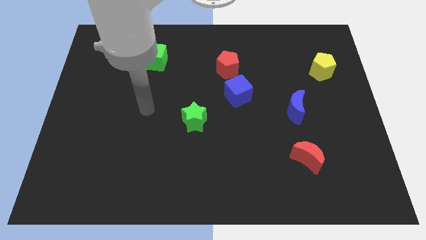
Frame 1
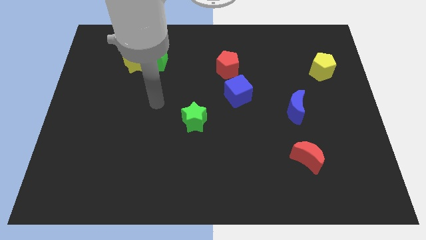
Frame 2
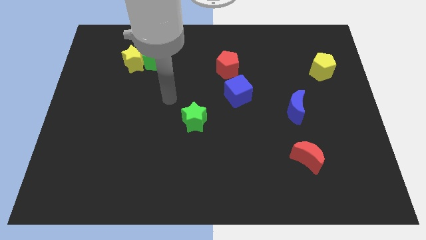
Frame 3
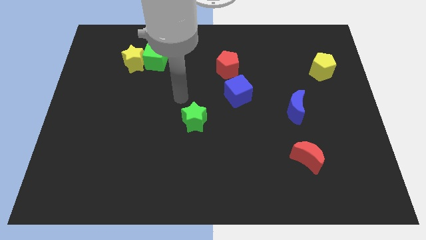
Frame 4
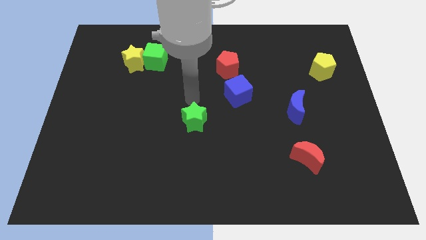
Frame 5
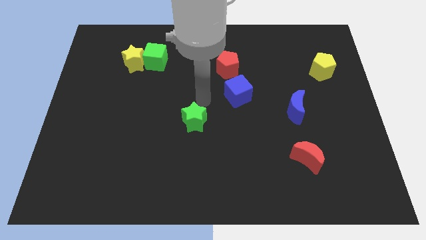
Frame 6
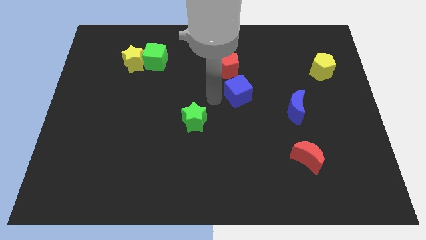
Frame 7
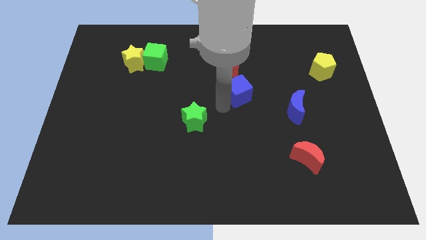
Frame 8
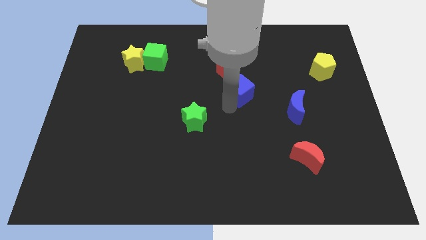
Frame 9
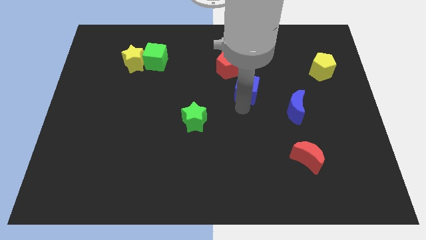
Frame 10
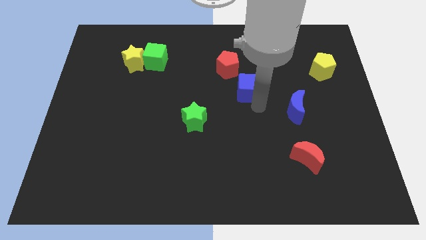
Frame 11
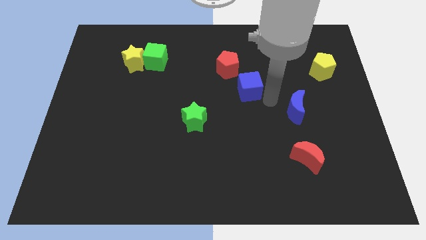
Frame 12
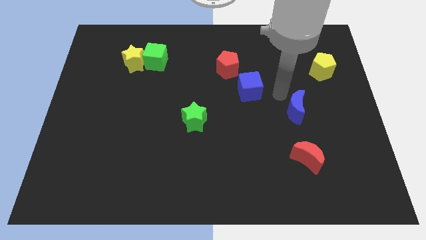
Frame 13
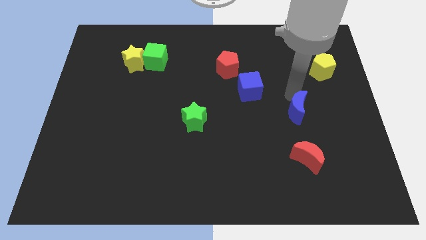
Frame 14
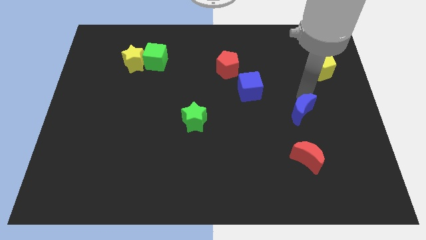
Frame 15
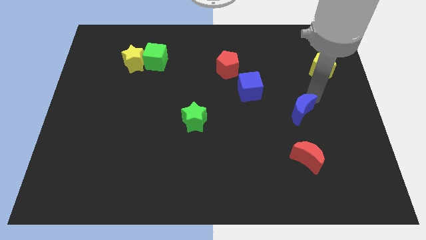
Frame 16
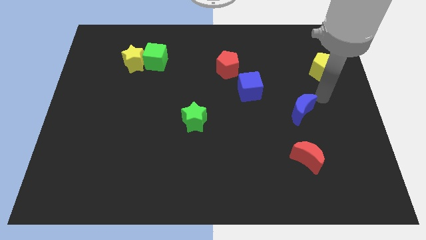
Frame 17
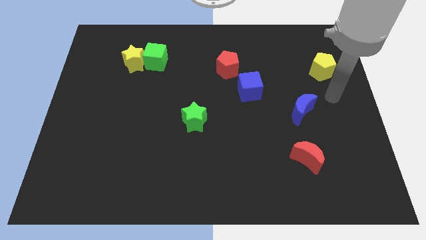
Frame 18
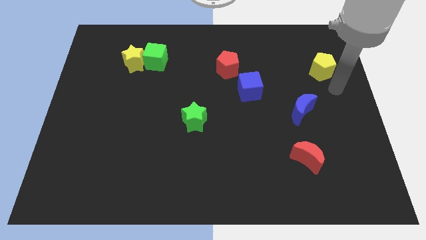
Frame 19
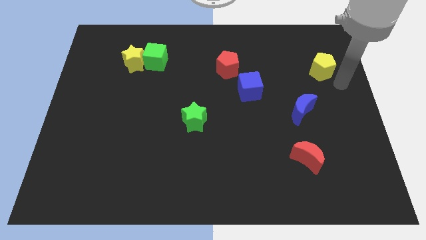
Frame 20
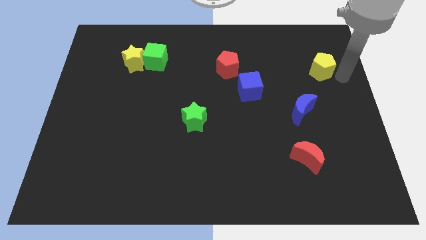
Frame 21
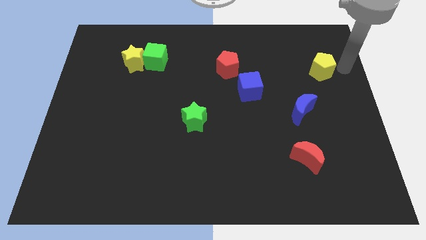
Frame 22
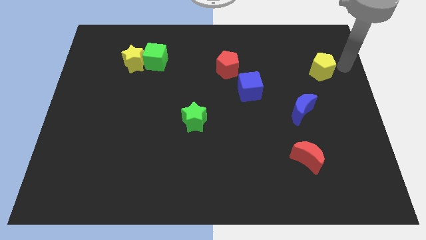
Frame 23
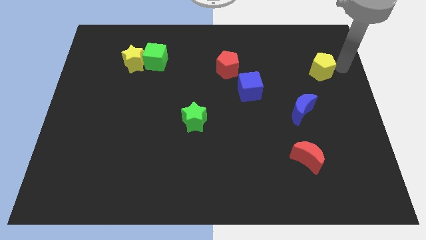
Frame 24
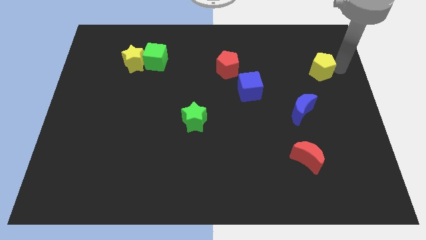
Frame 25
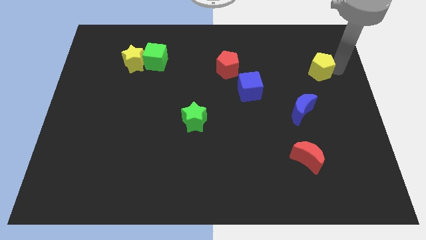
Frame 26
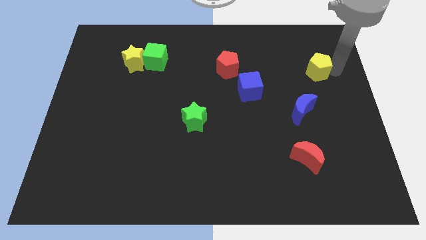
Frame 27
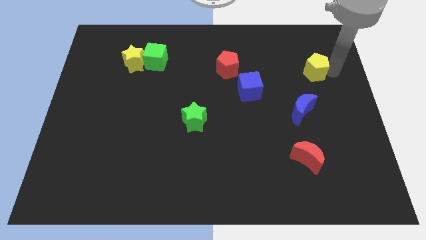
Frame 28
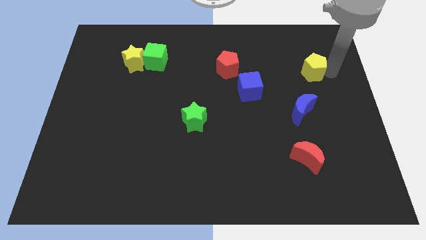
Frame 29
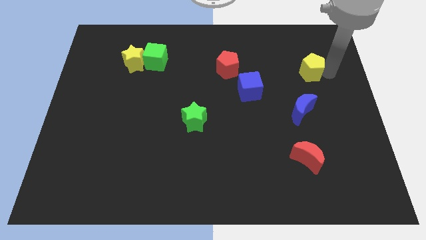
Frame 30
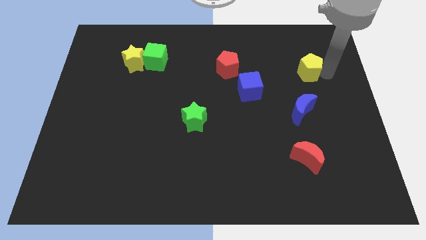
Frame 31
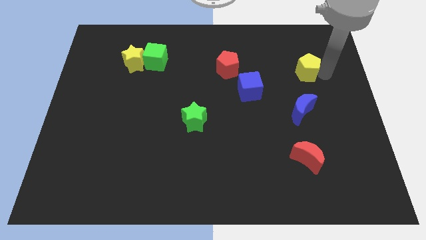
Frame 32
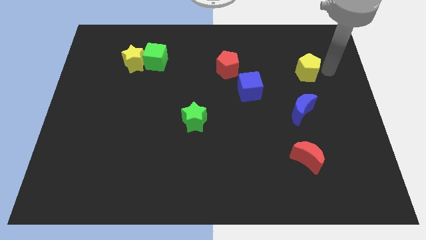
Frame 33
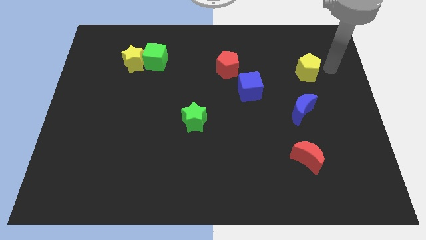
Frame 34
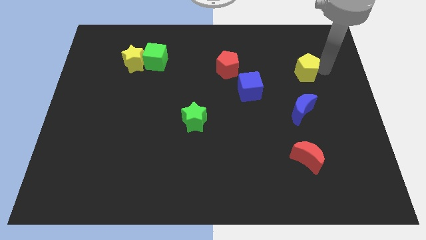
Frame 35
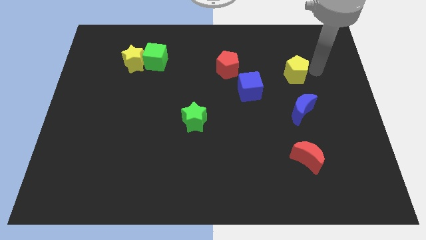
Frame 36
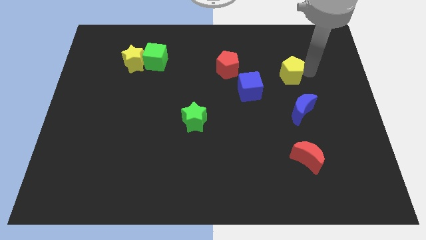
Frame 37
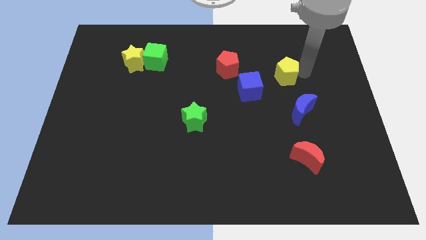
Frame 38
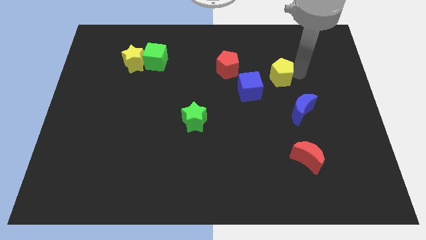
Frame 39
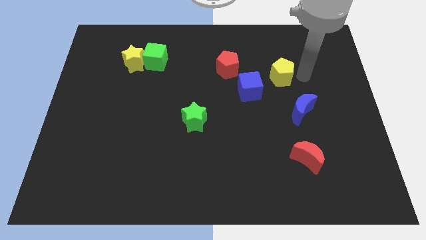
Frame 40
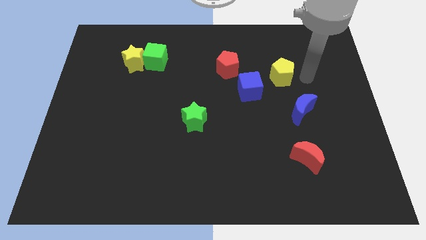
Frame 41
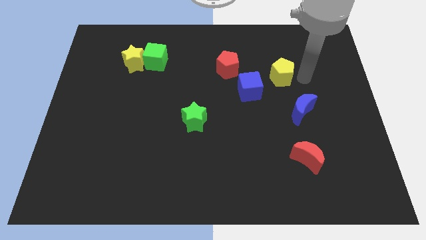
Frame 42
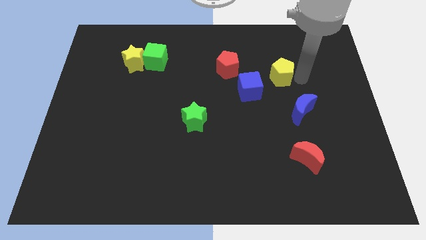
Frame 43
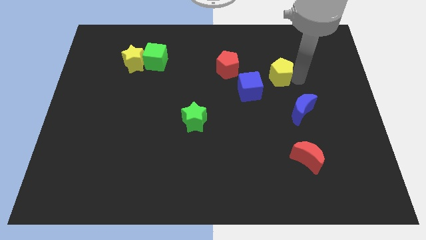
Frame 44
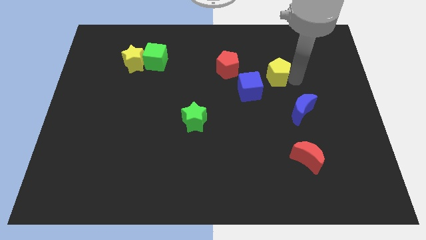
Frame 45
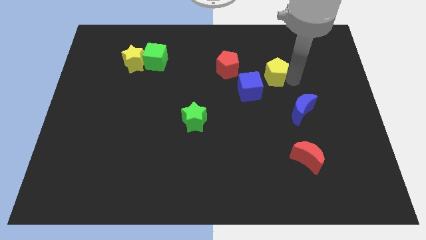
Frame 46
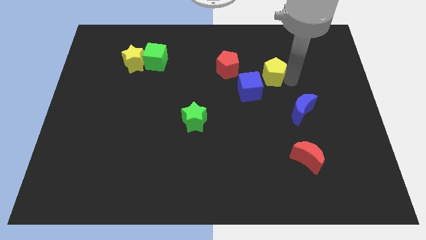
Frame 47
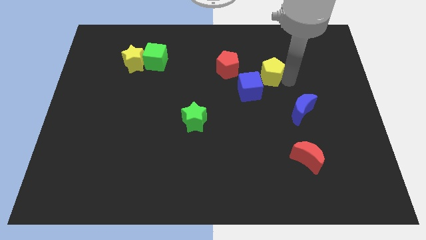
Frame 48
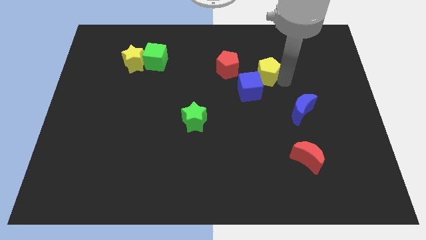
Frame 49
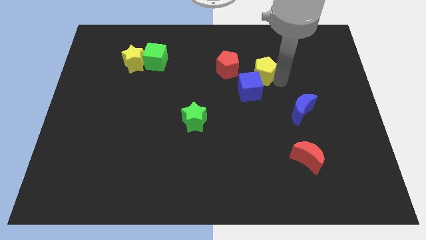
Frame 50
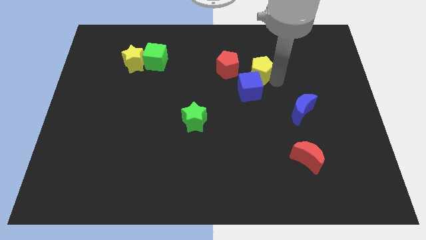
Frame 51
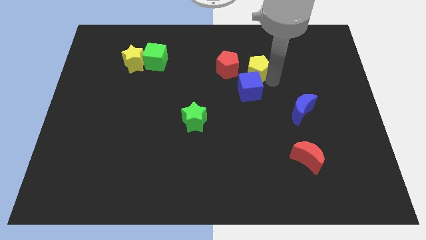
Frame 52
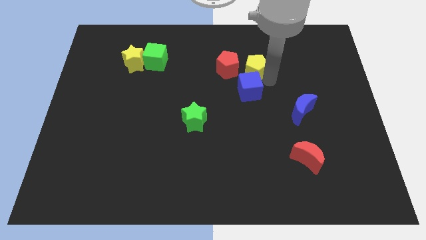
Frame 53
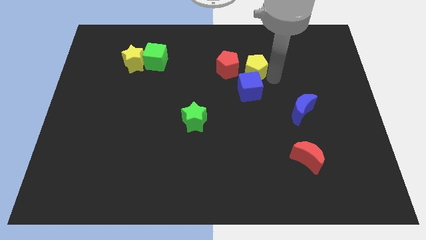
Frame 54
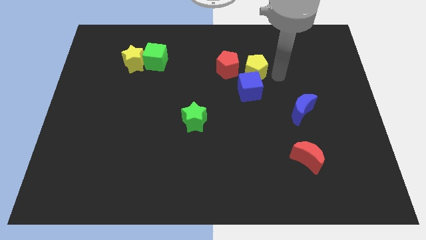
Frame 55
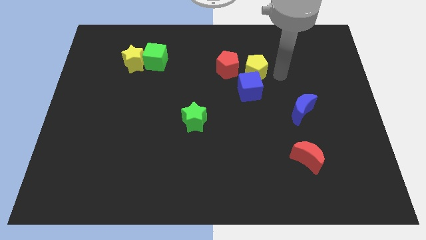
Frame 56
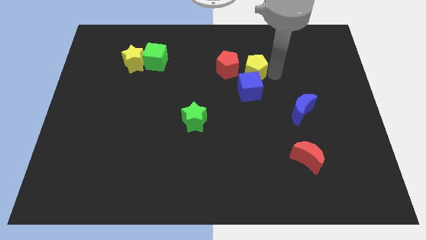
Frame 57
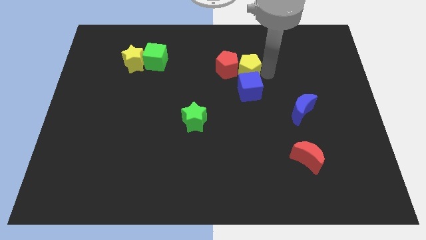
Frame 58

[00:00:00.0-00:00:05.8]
put the yellow pentagon next to the red pentagon

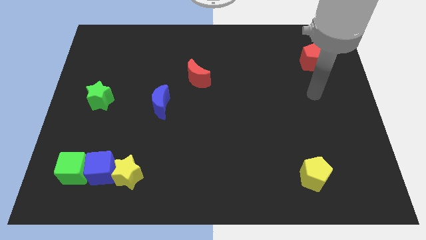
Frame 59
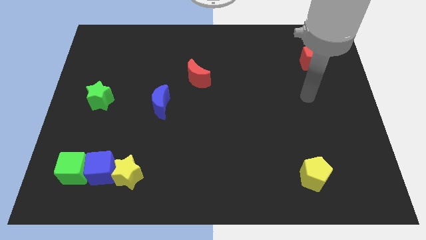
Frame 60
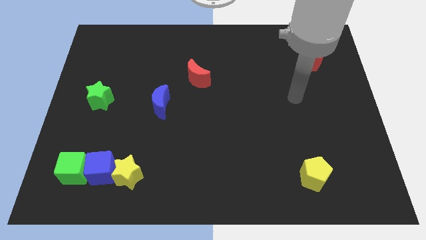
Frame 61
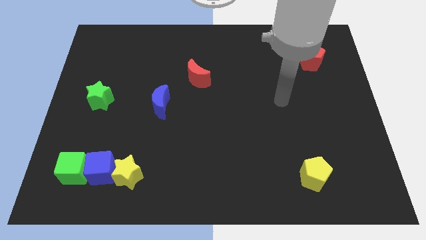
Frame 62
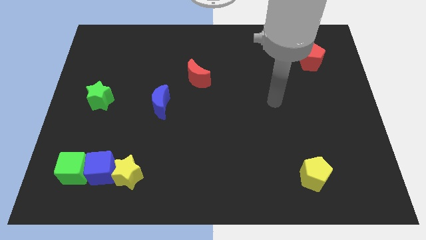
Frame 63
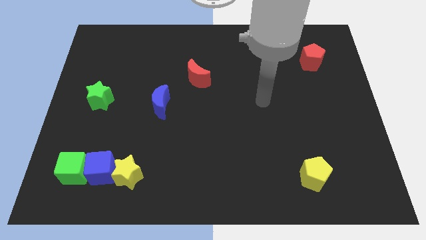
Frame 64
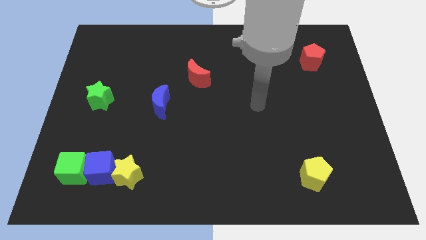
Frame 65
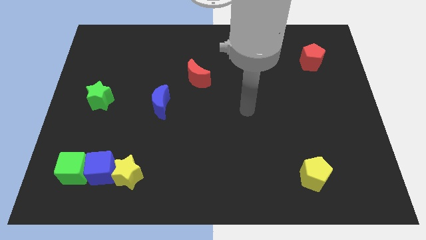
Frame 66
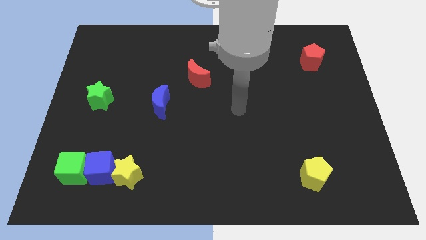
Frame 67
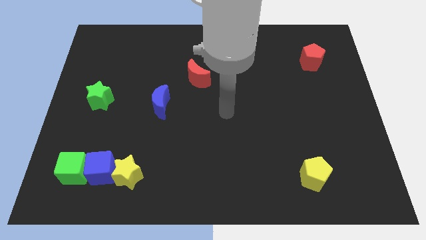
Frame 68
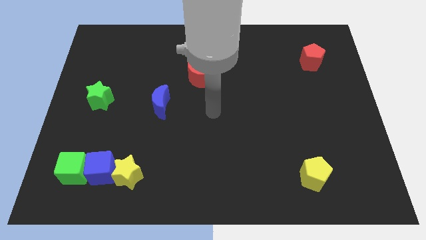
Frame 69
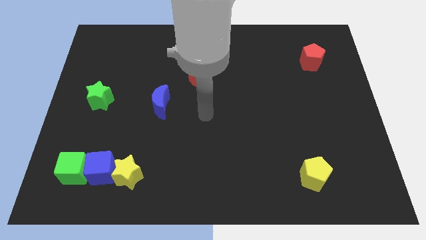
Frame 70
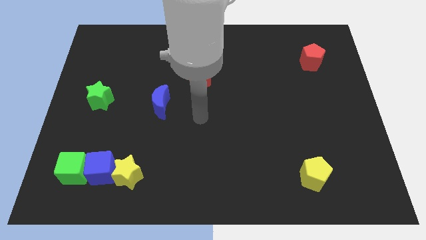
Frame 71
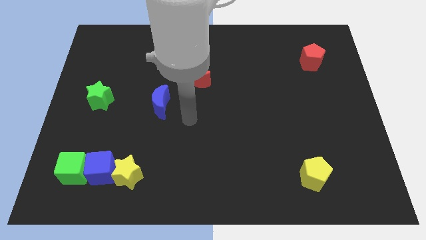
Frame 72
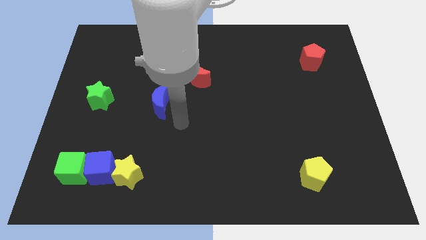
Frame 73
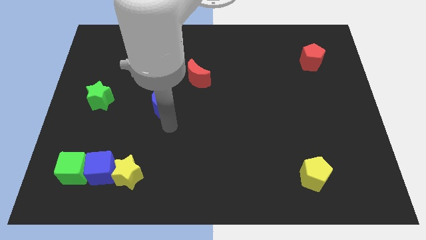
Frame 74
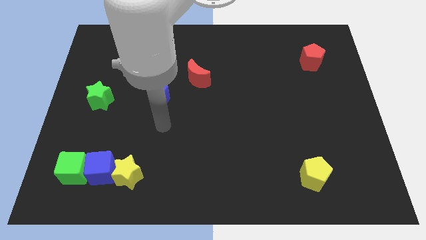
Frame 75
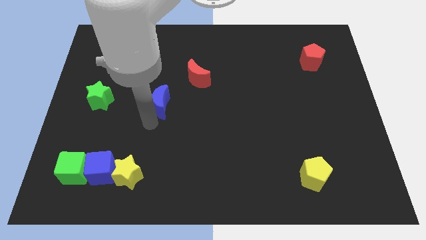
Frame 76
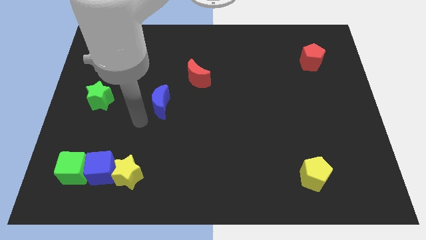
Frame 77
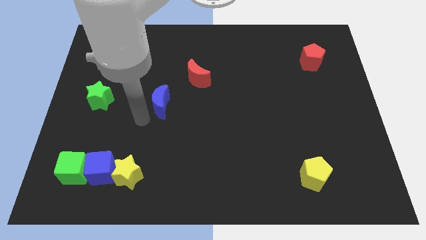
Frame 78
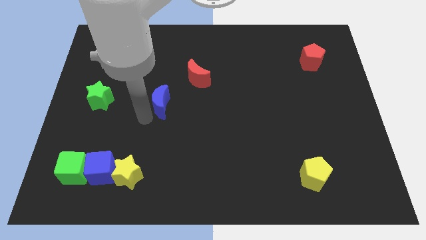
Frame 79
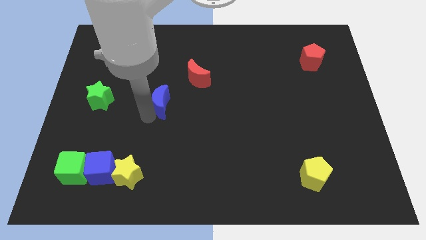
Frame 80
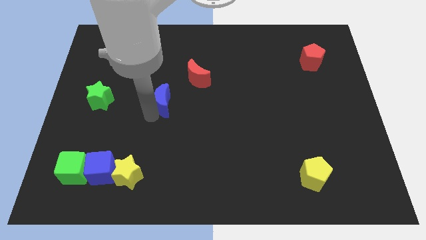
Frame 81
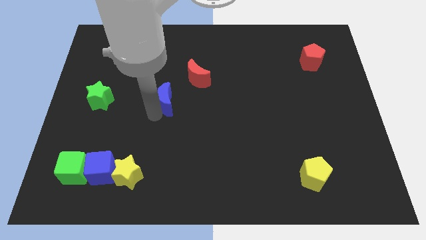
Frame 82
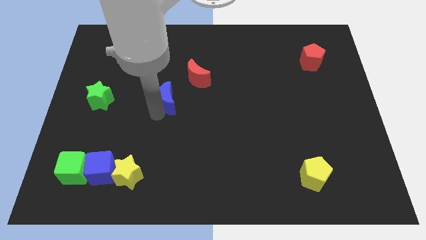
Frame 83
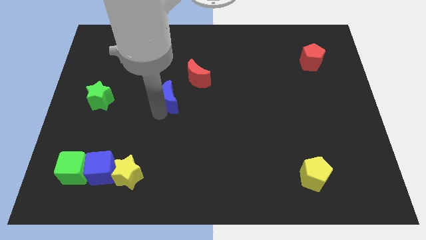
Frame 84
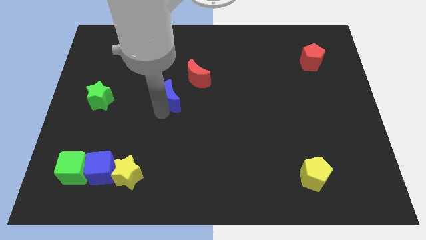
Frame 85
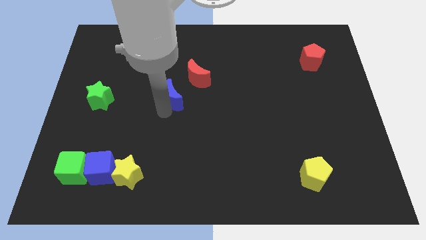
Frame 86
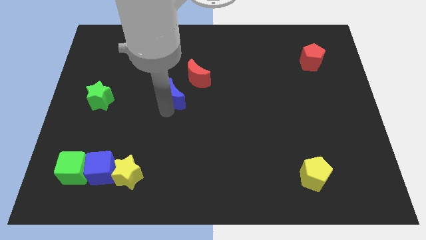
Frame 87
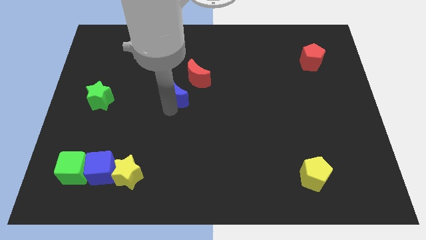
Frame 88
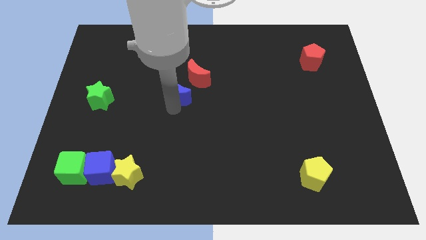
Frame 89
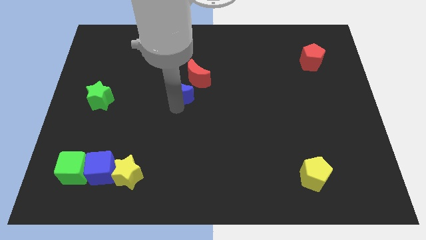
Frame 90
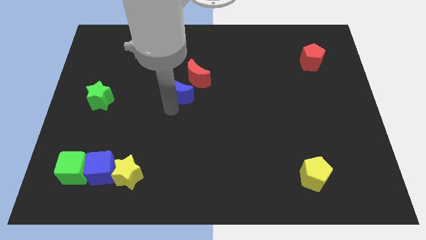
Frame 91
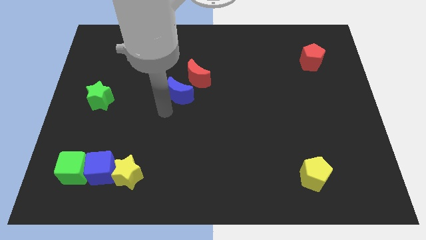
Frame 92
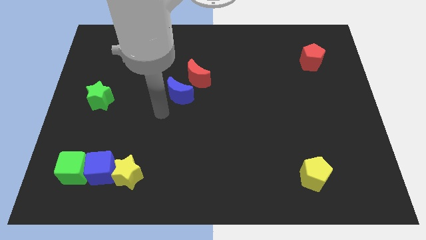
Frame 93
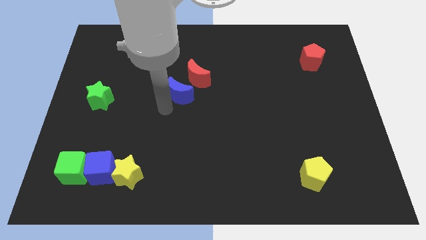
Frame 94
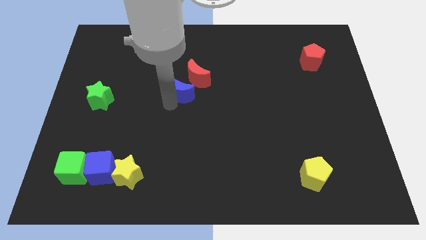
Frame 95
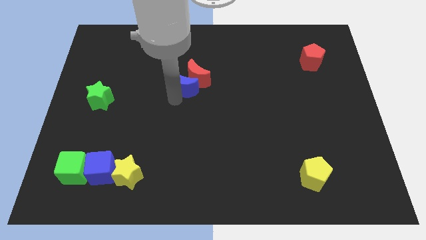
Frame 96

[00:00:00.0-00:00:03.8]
move the blue moon towards the red moon
